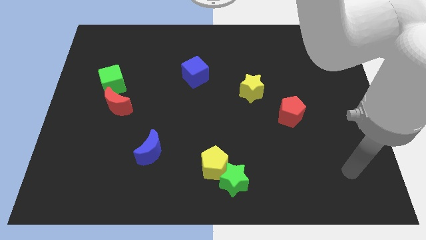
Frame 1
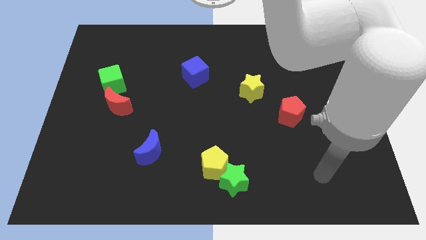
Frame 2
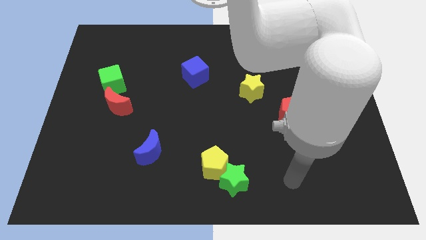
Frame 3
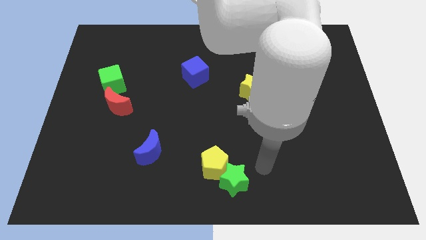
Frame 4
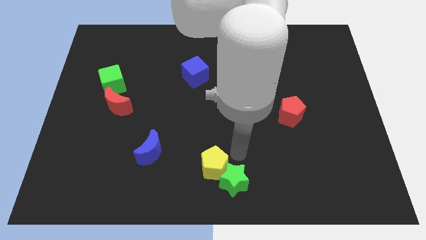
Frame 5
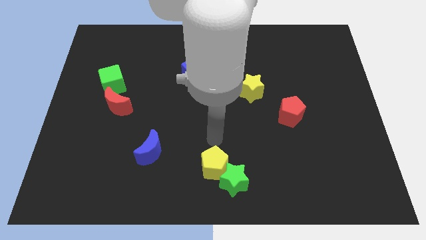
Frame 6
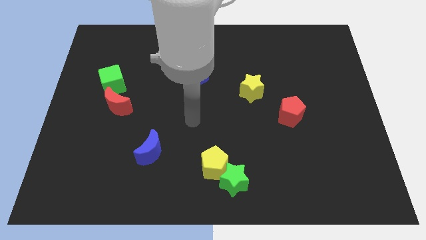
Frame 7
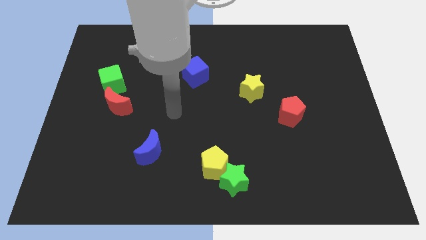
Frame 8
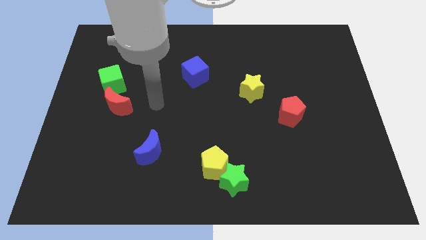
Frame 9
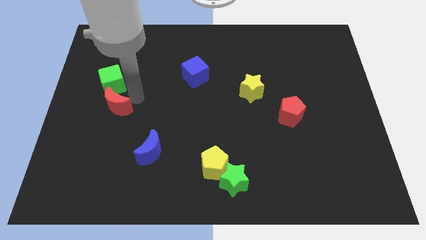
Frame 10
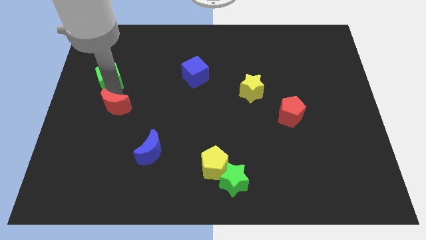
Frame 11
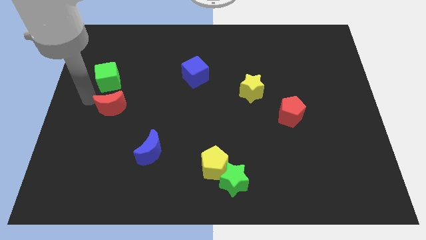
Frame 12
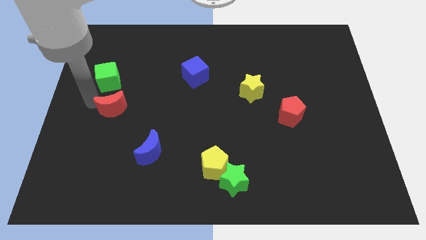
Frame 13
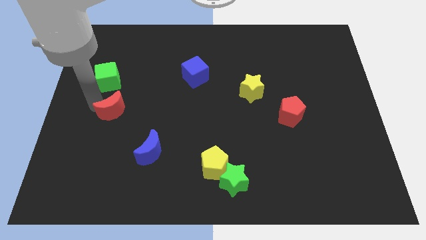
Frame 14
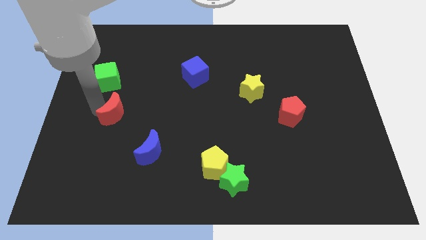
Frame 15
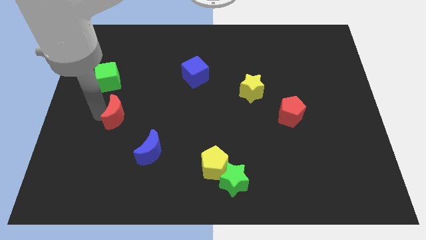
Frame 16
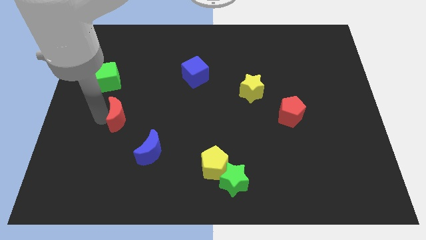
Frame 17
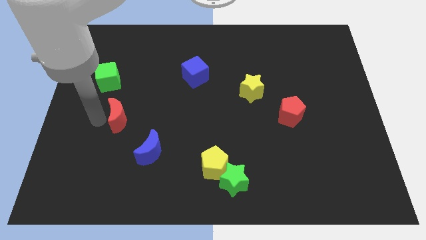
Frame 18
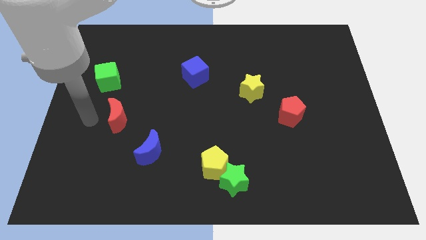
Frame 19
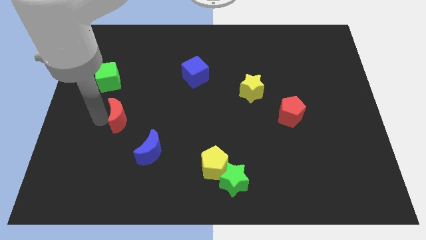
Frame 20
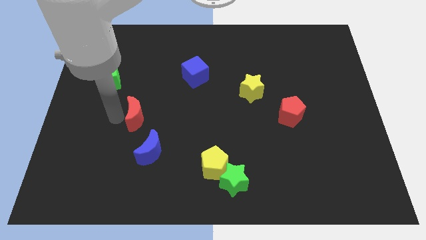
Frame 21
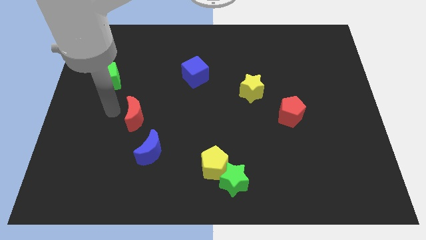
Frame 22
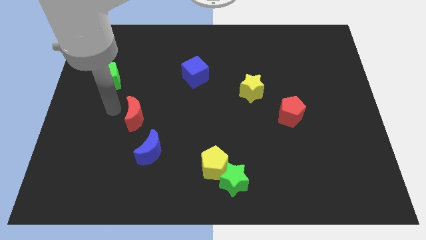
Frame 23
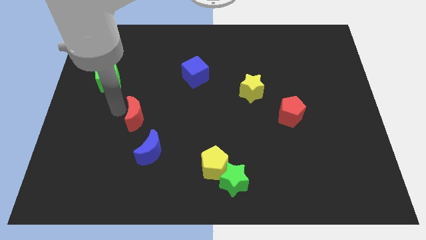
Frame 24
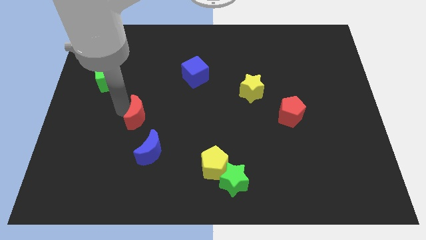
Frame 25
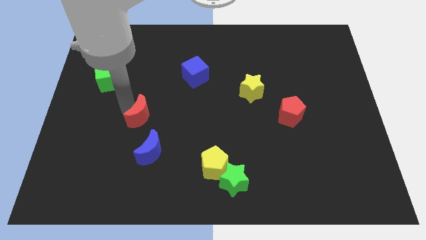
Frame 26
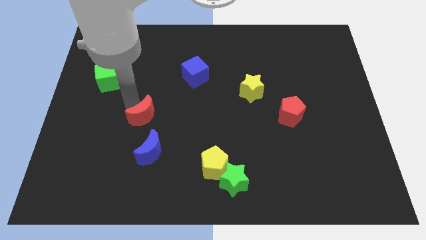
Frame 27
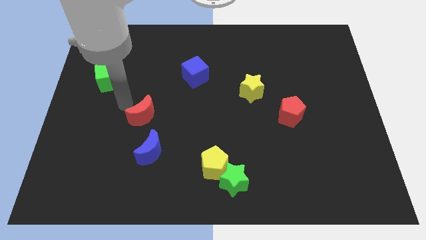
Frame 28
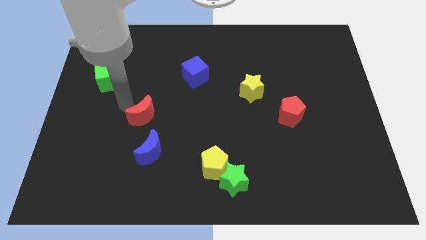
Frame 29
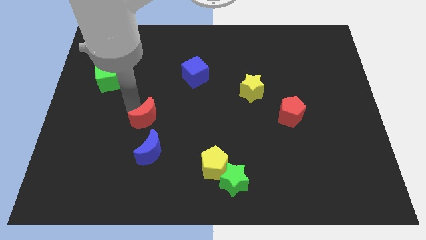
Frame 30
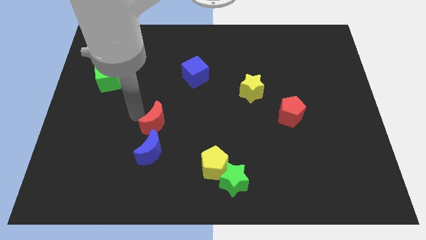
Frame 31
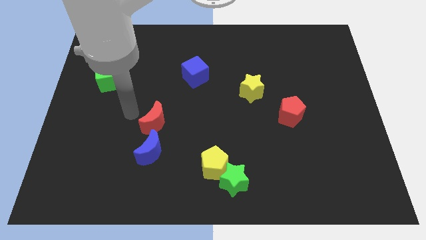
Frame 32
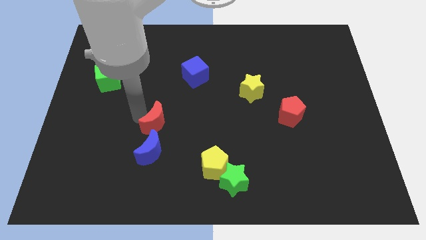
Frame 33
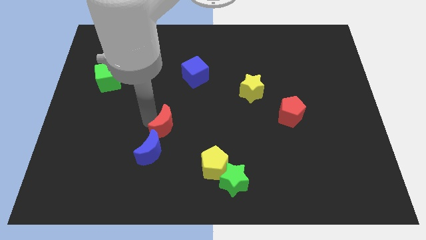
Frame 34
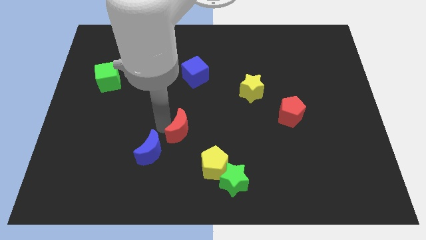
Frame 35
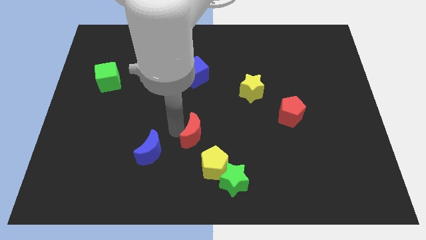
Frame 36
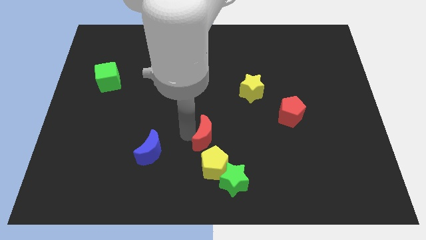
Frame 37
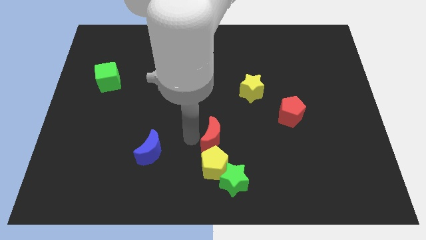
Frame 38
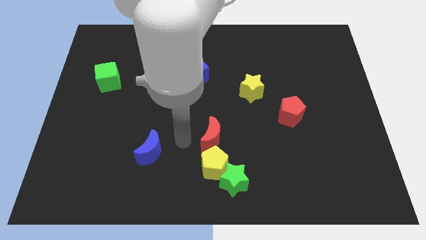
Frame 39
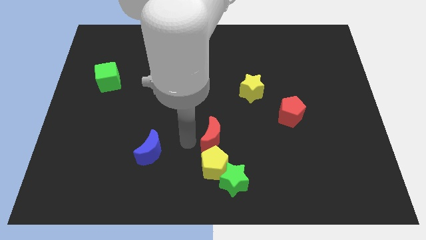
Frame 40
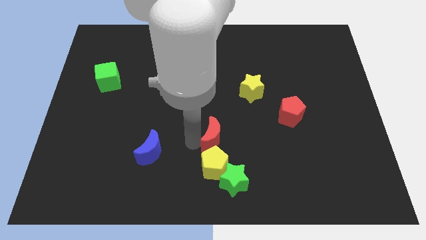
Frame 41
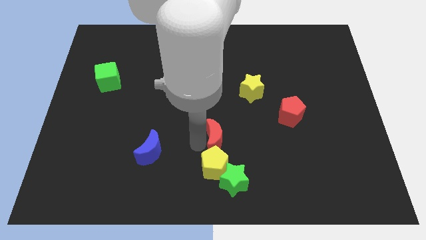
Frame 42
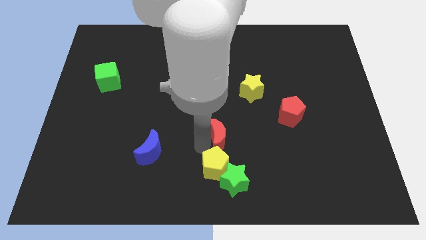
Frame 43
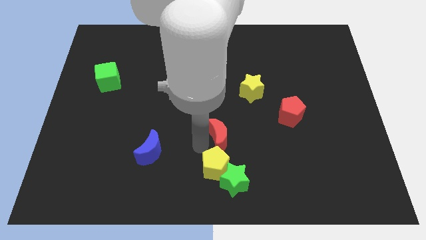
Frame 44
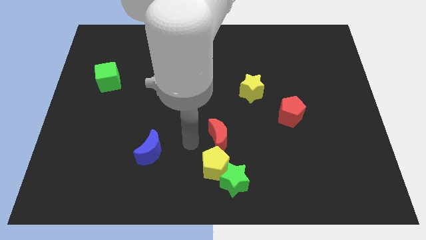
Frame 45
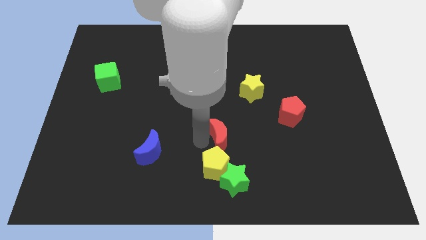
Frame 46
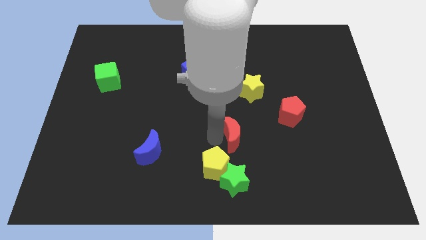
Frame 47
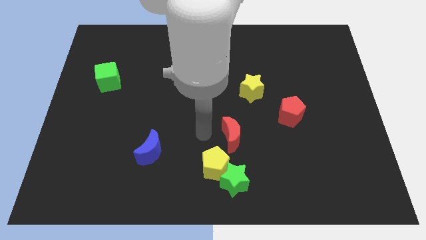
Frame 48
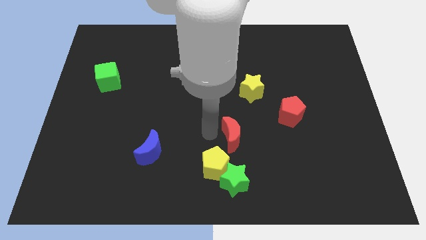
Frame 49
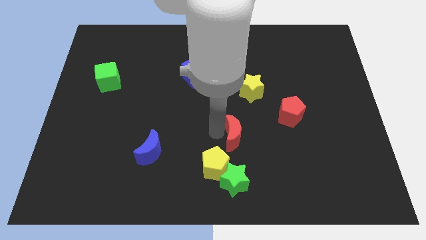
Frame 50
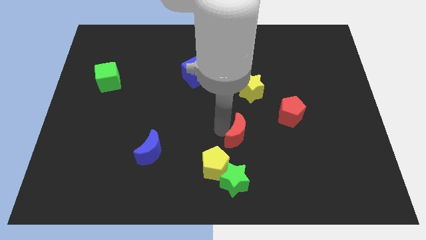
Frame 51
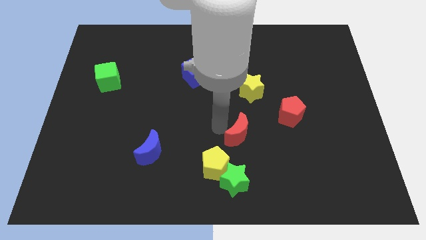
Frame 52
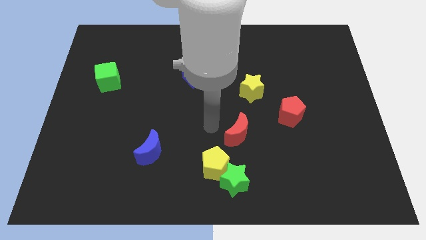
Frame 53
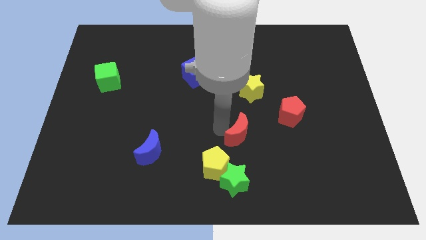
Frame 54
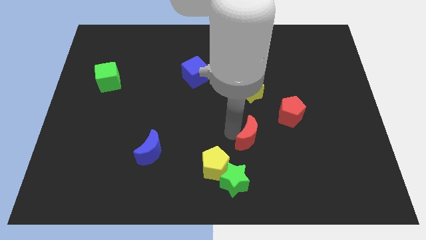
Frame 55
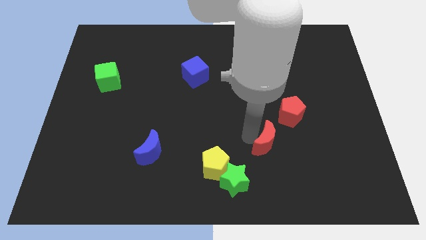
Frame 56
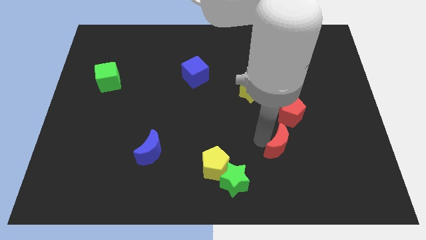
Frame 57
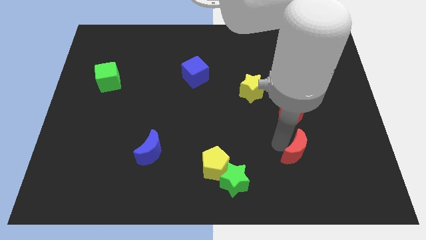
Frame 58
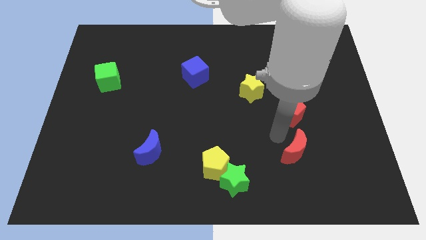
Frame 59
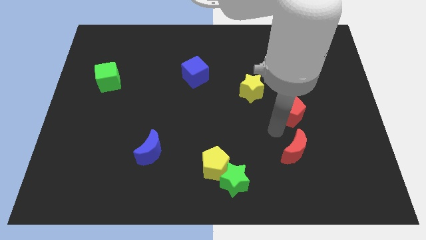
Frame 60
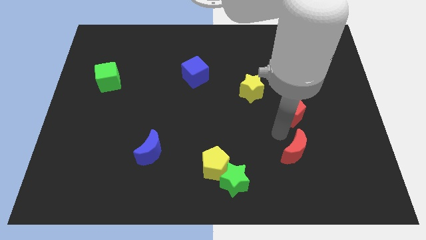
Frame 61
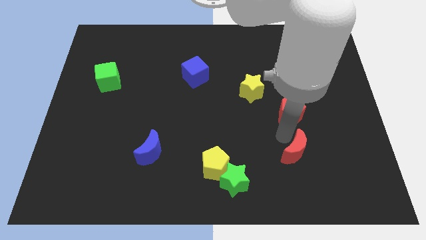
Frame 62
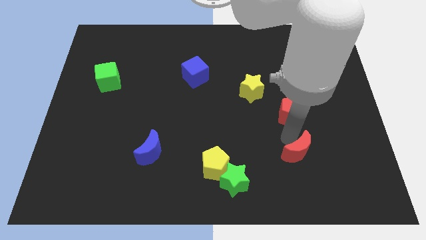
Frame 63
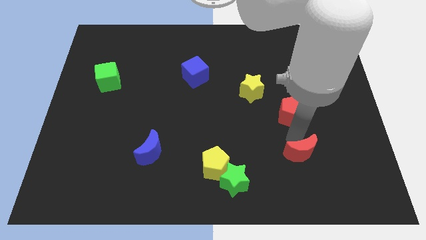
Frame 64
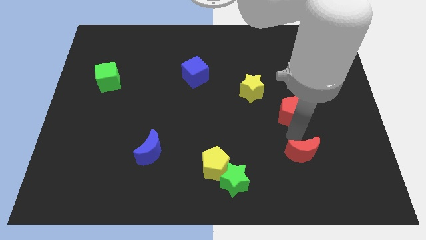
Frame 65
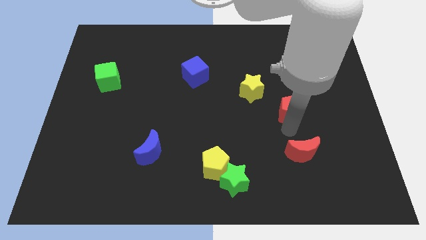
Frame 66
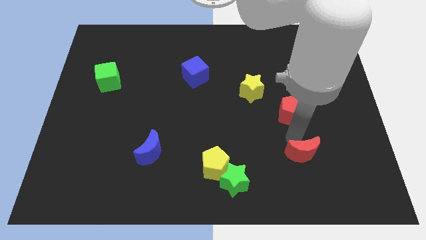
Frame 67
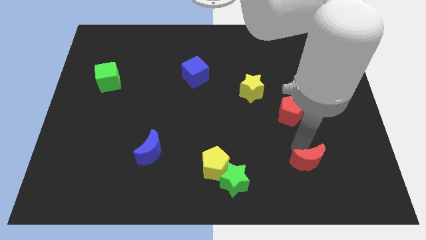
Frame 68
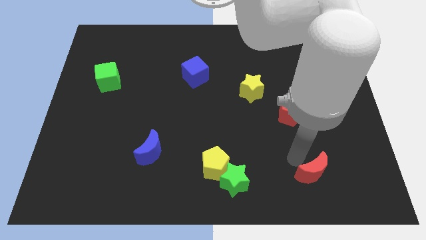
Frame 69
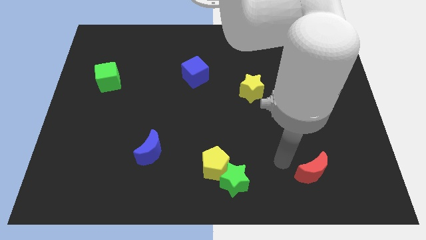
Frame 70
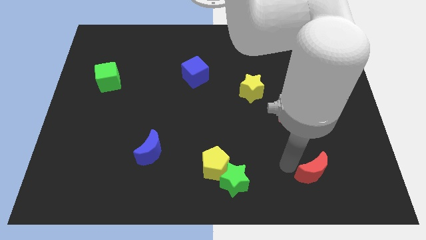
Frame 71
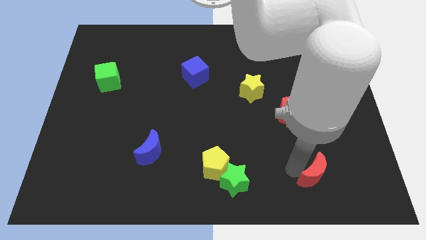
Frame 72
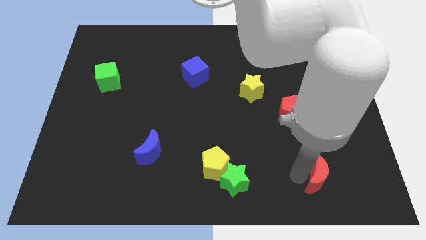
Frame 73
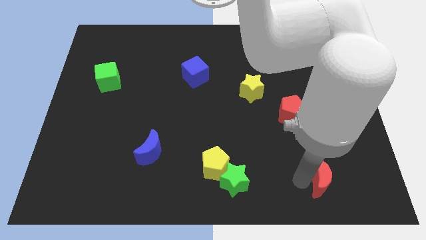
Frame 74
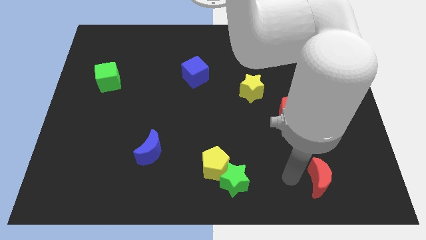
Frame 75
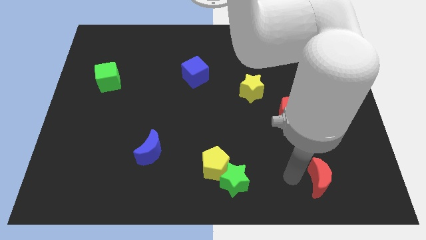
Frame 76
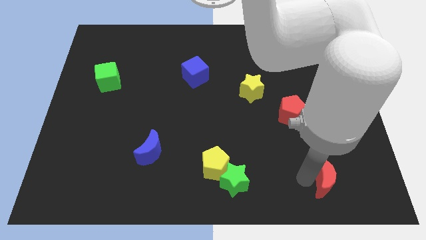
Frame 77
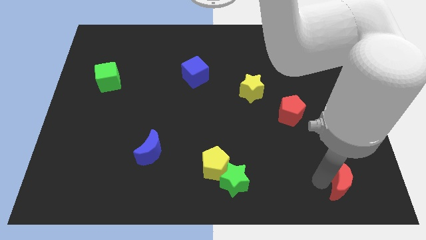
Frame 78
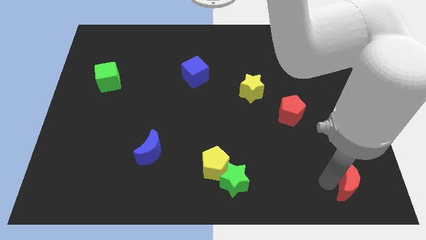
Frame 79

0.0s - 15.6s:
slide the red moon to the lower right corner
